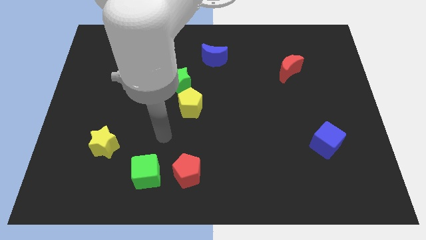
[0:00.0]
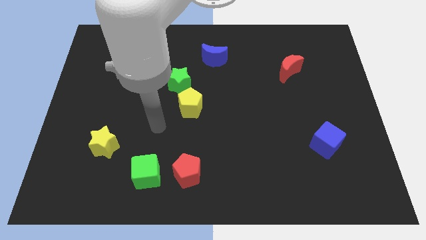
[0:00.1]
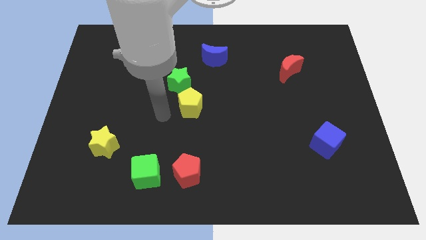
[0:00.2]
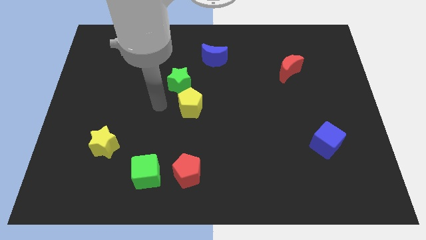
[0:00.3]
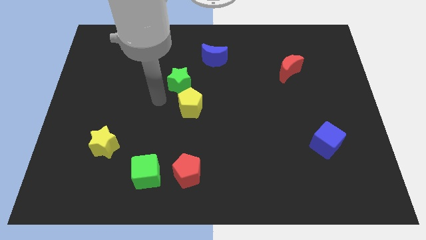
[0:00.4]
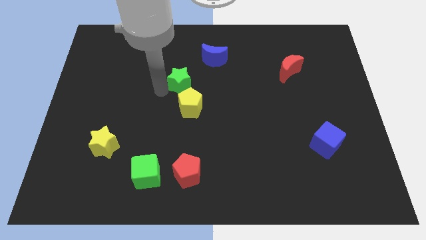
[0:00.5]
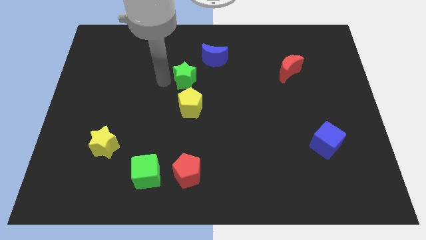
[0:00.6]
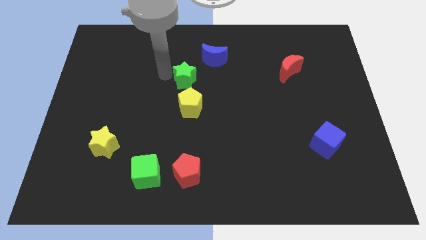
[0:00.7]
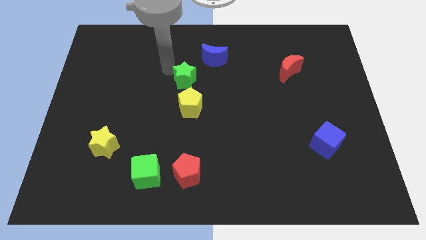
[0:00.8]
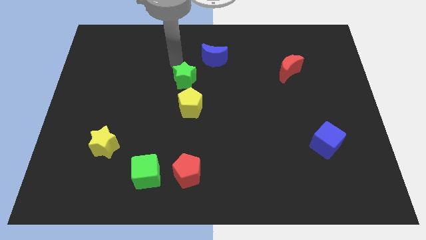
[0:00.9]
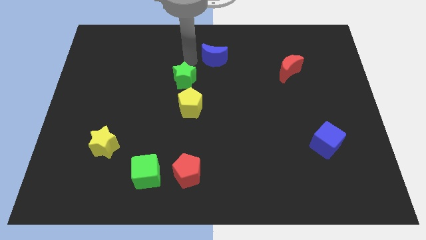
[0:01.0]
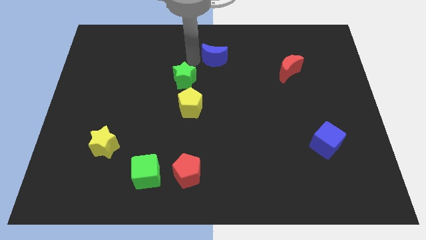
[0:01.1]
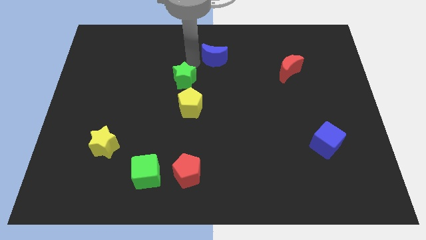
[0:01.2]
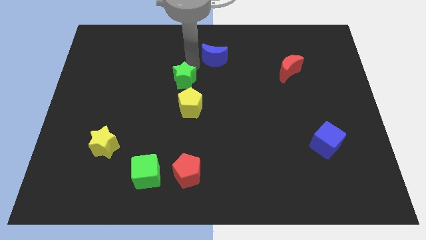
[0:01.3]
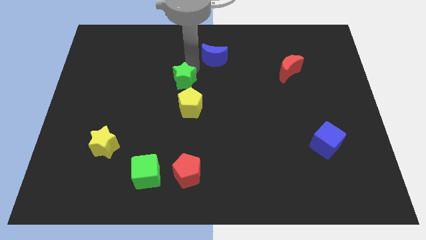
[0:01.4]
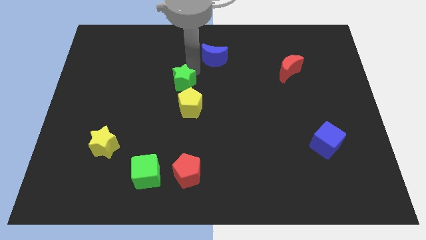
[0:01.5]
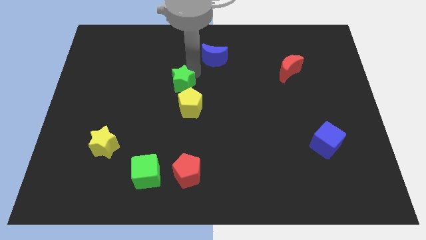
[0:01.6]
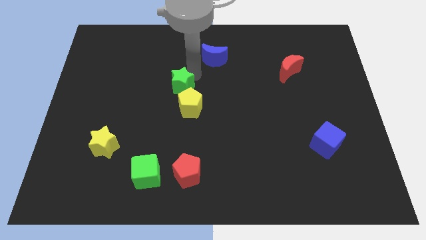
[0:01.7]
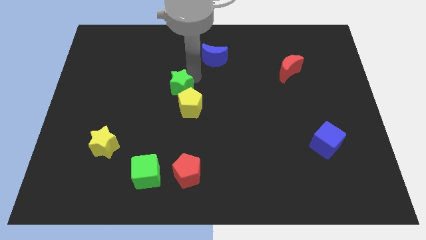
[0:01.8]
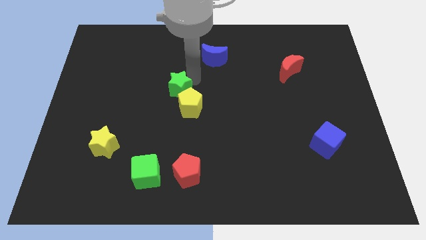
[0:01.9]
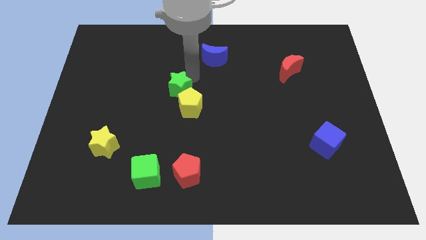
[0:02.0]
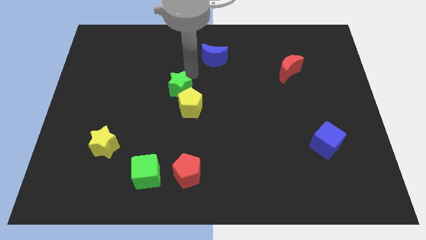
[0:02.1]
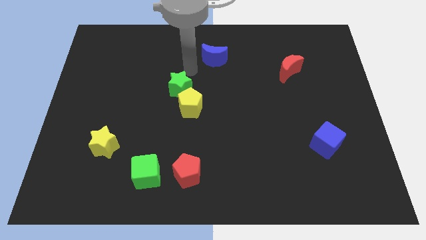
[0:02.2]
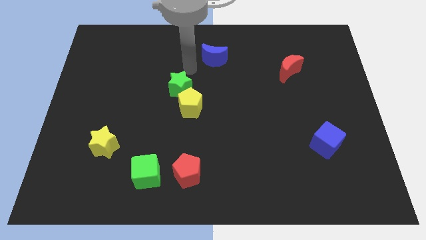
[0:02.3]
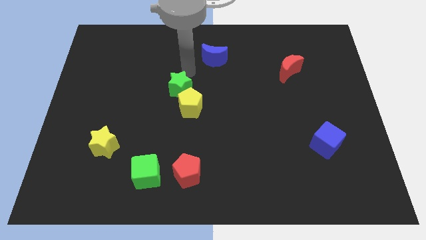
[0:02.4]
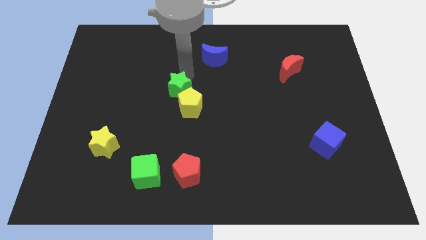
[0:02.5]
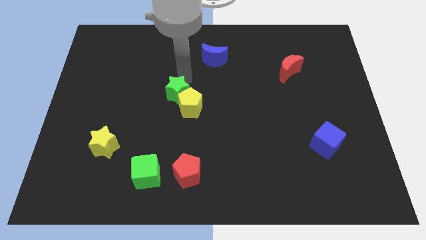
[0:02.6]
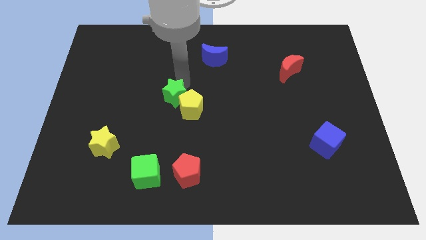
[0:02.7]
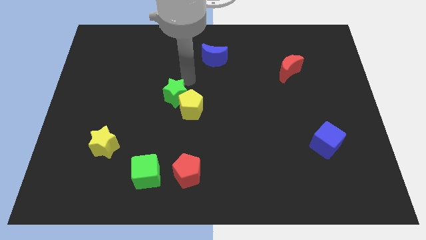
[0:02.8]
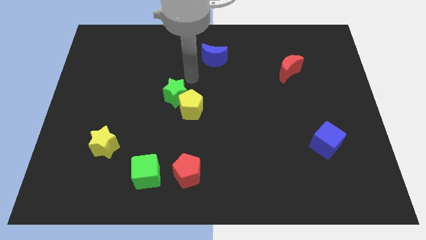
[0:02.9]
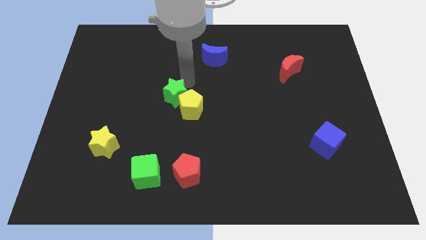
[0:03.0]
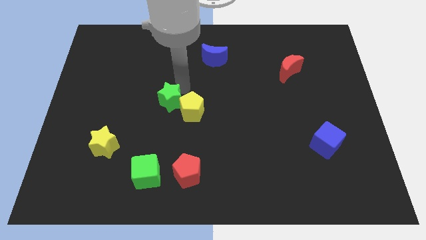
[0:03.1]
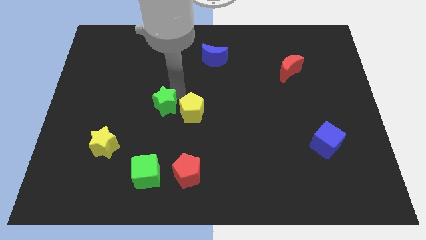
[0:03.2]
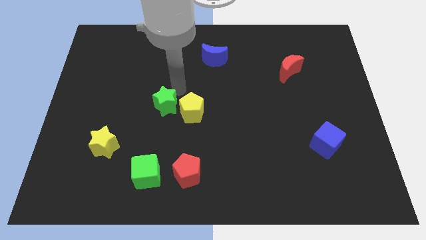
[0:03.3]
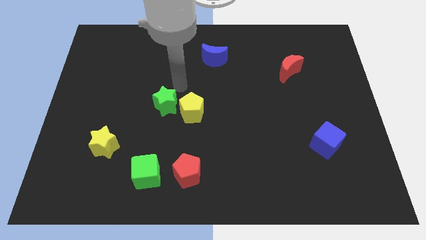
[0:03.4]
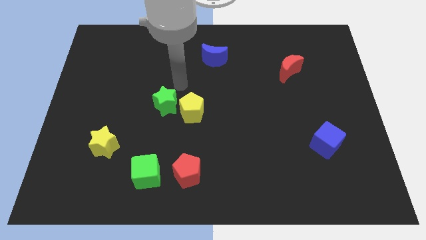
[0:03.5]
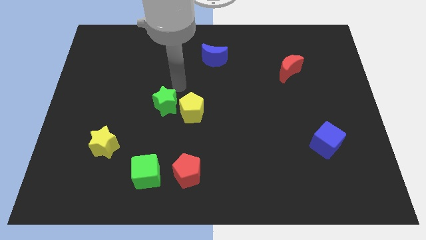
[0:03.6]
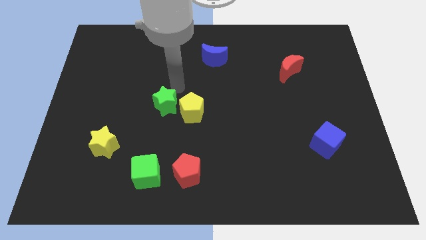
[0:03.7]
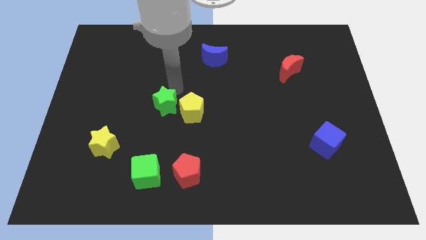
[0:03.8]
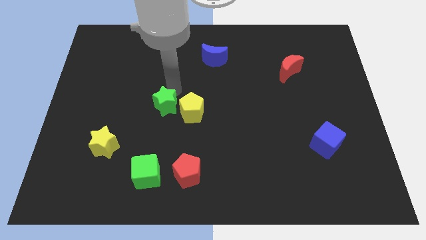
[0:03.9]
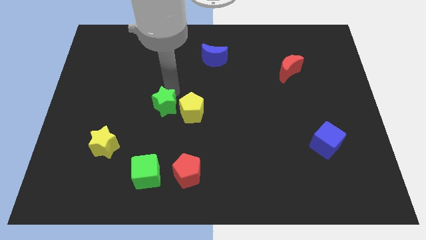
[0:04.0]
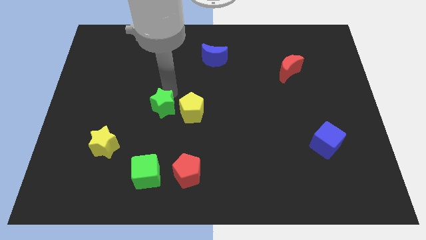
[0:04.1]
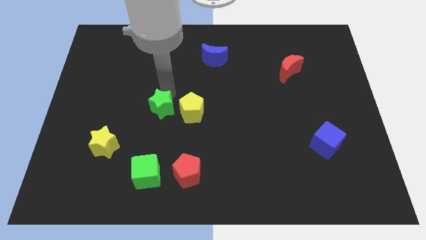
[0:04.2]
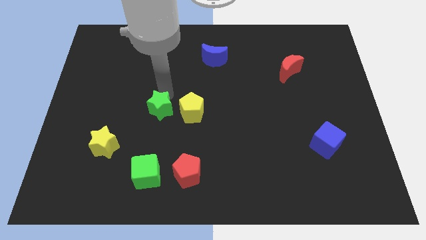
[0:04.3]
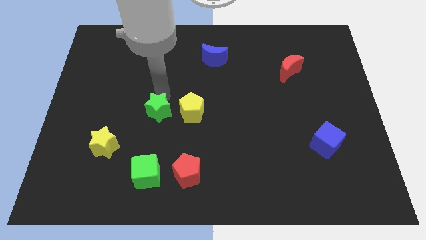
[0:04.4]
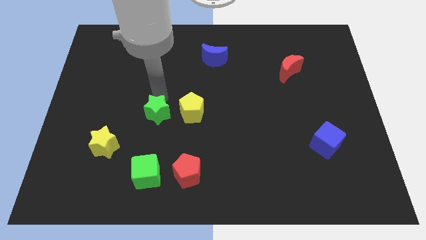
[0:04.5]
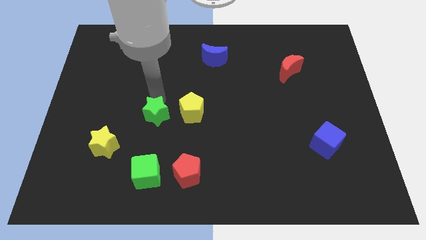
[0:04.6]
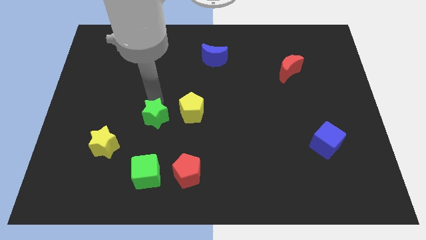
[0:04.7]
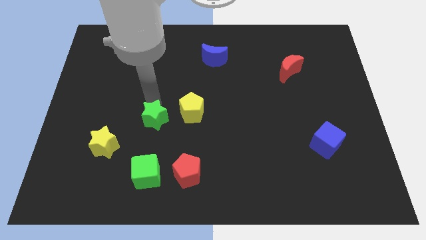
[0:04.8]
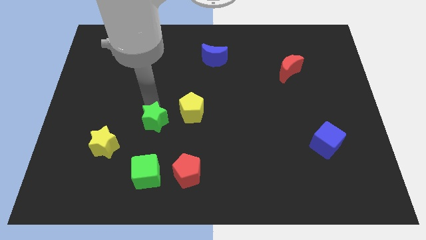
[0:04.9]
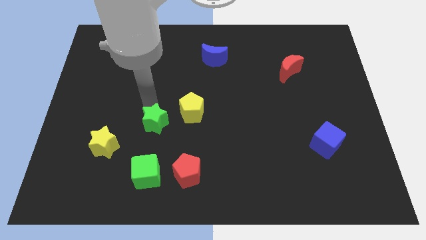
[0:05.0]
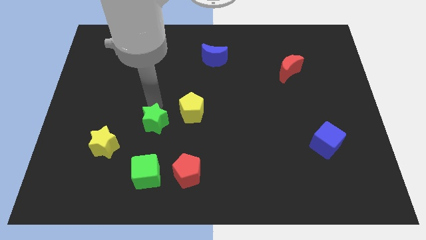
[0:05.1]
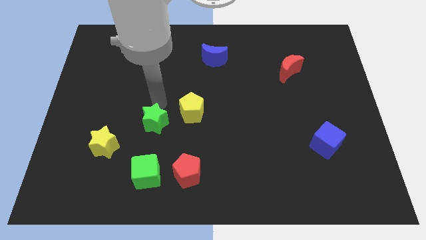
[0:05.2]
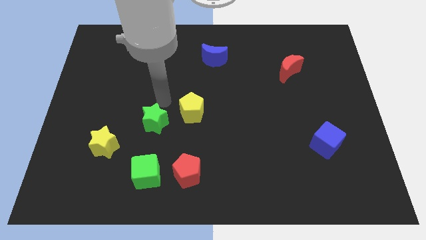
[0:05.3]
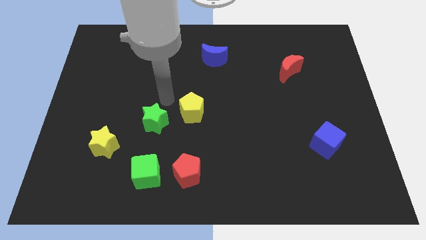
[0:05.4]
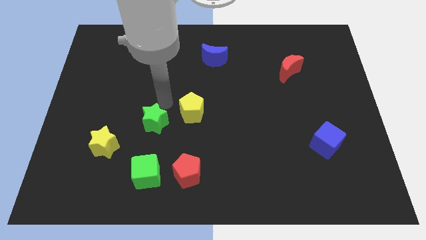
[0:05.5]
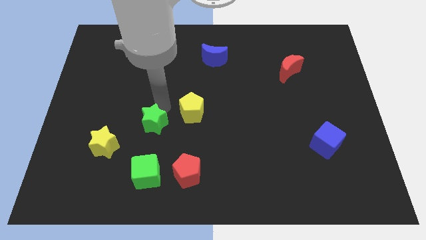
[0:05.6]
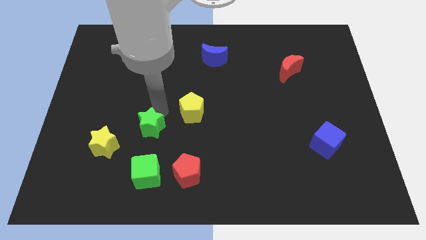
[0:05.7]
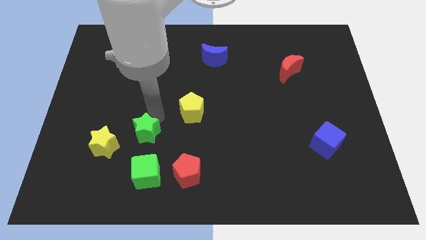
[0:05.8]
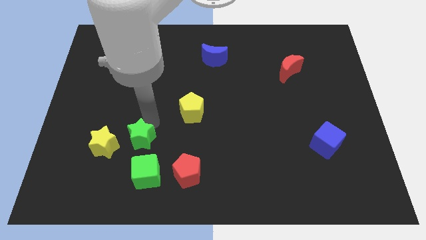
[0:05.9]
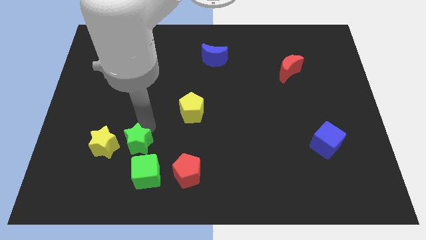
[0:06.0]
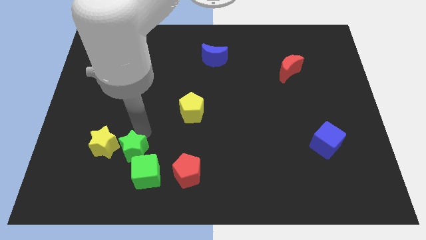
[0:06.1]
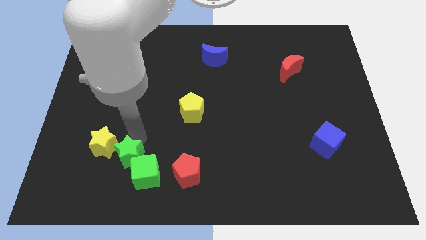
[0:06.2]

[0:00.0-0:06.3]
move the green star left of the red pentagon

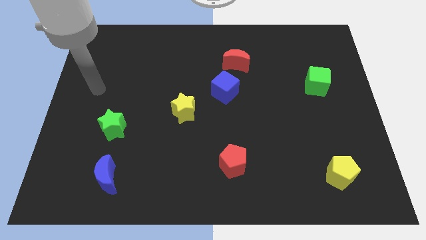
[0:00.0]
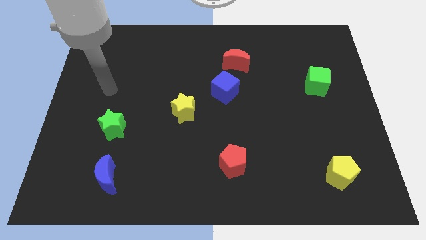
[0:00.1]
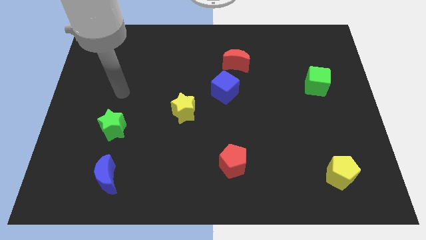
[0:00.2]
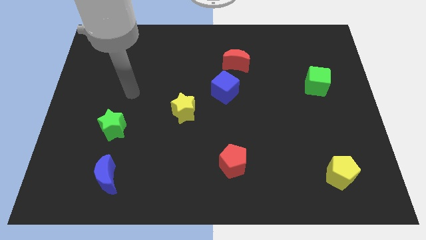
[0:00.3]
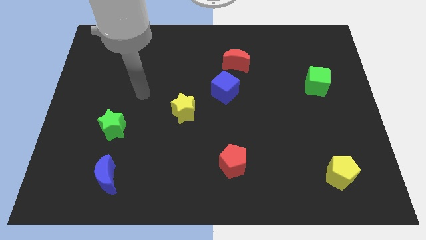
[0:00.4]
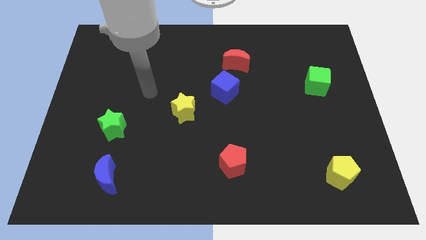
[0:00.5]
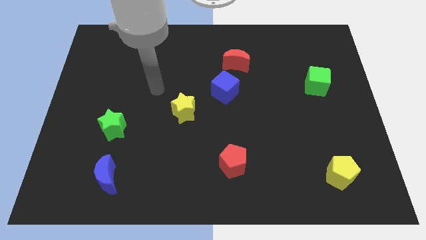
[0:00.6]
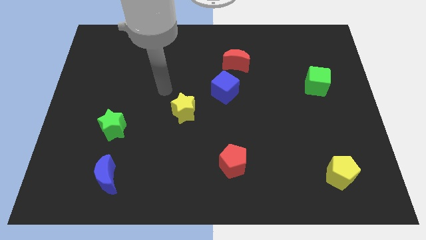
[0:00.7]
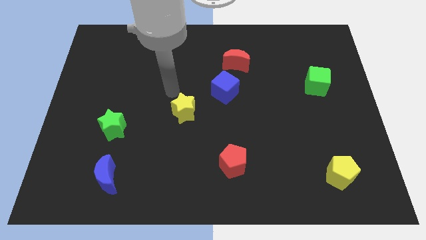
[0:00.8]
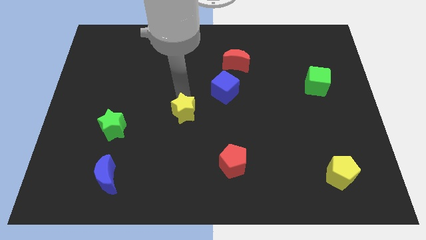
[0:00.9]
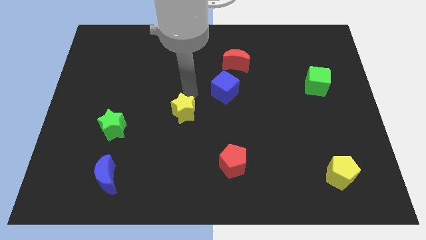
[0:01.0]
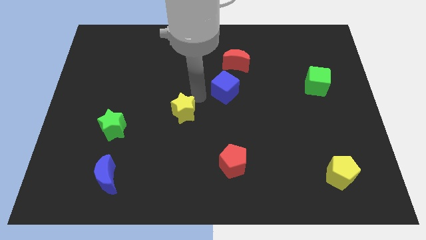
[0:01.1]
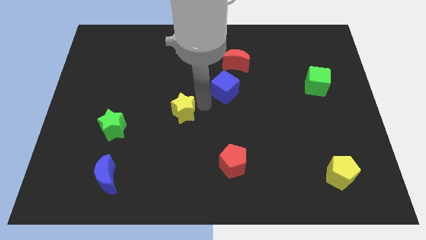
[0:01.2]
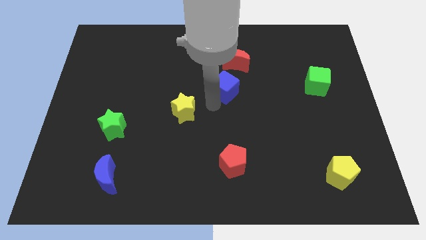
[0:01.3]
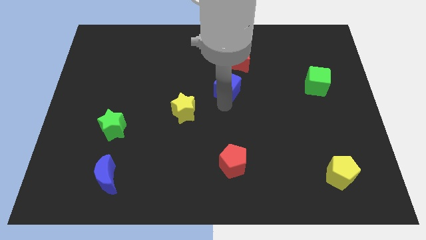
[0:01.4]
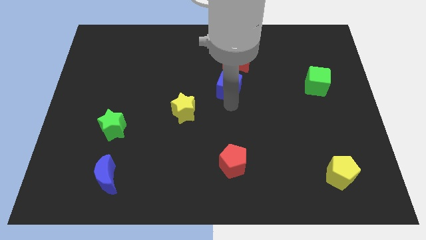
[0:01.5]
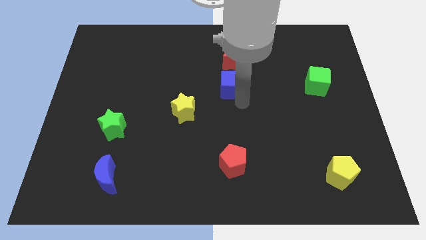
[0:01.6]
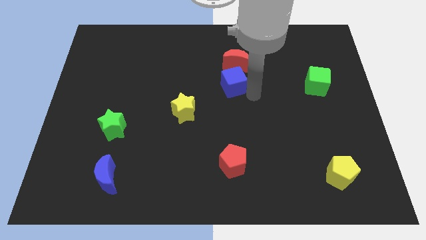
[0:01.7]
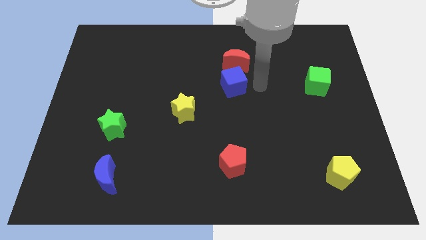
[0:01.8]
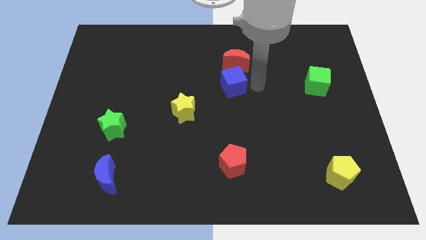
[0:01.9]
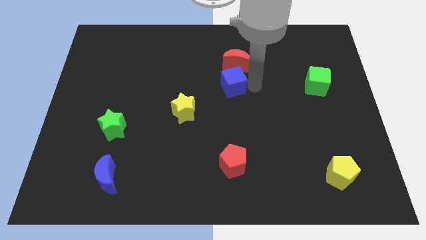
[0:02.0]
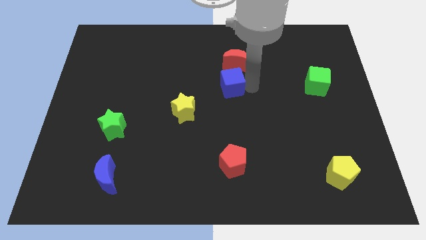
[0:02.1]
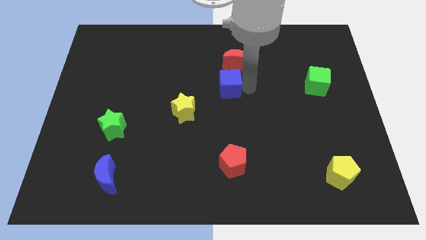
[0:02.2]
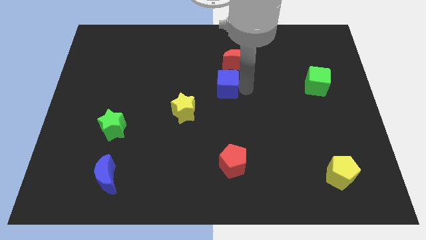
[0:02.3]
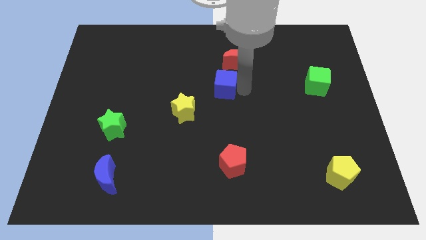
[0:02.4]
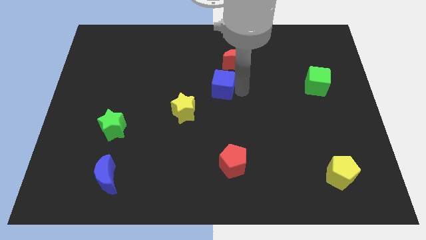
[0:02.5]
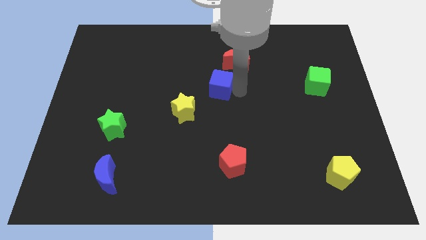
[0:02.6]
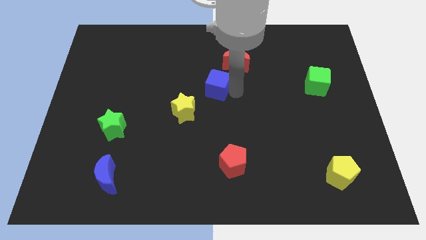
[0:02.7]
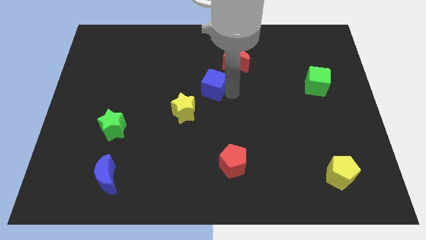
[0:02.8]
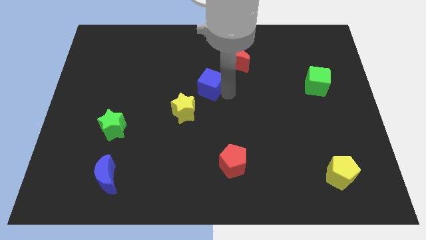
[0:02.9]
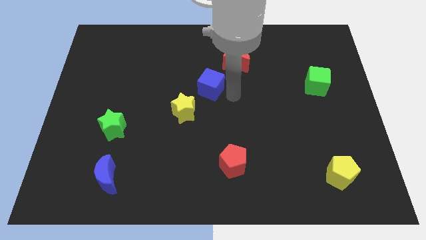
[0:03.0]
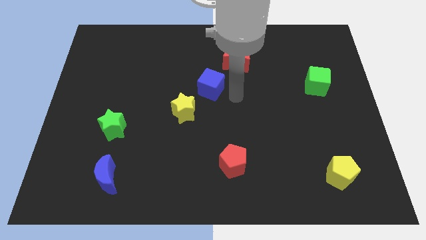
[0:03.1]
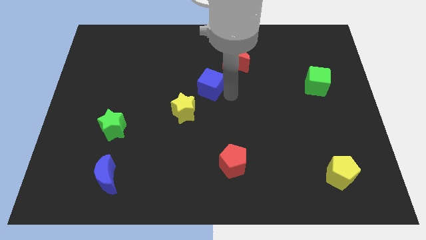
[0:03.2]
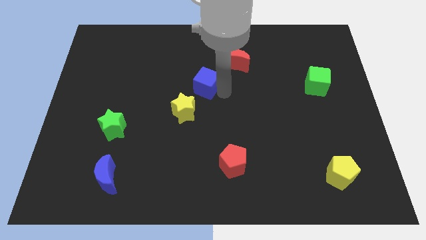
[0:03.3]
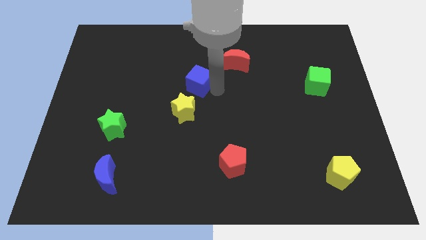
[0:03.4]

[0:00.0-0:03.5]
slide the blue cube to the top of the yellow star
